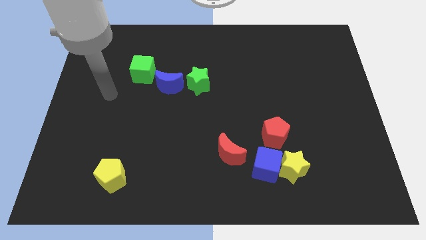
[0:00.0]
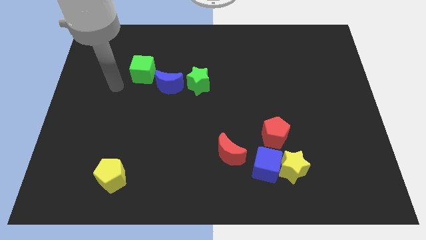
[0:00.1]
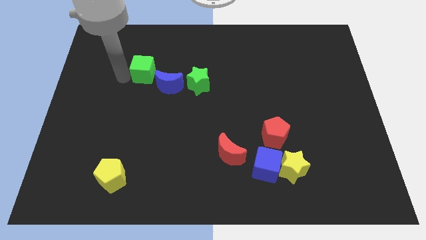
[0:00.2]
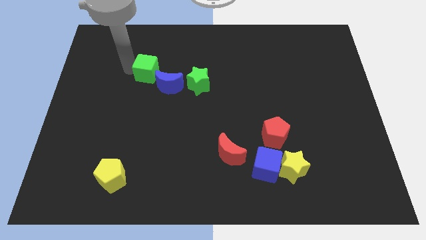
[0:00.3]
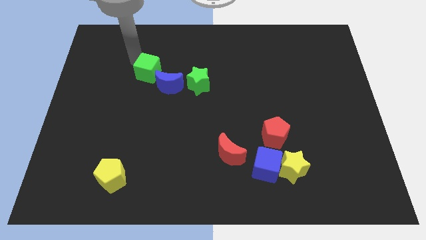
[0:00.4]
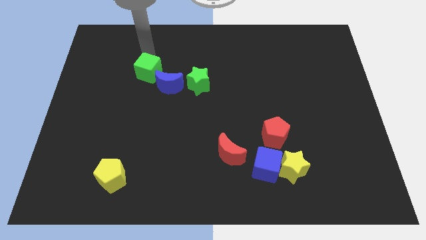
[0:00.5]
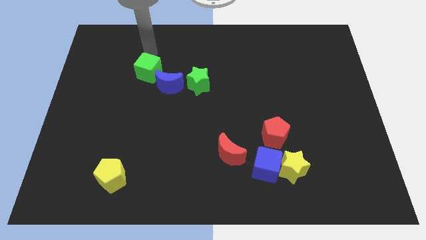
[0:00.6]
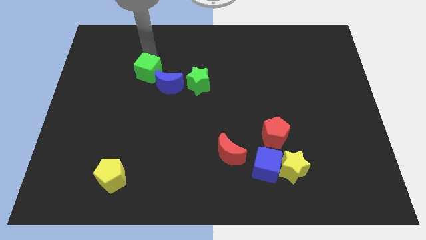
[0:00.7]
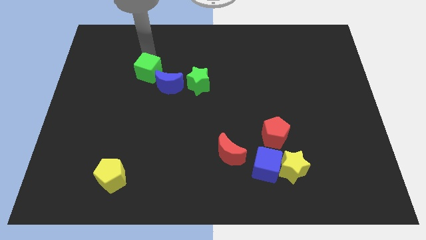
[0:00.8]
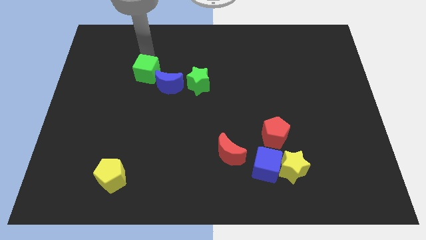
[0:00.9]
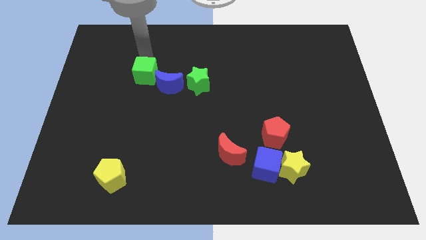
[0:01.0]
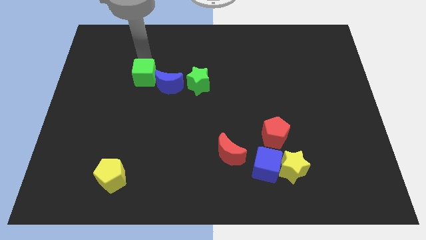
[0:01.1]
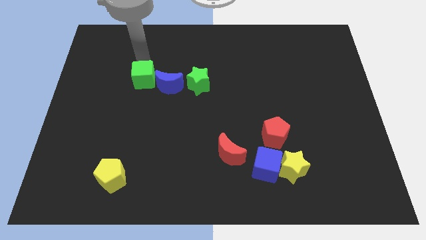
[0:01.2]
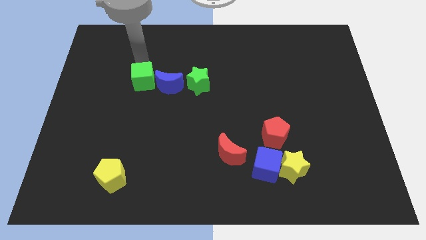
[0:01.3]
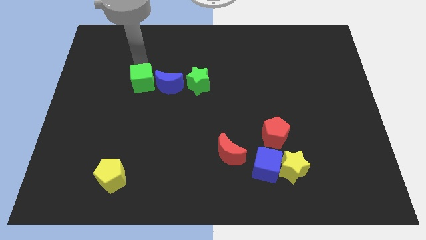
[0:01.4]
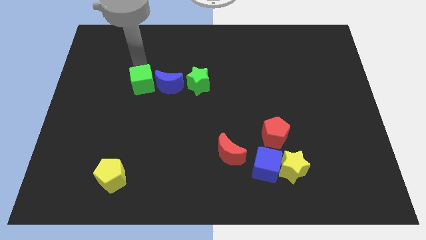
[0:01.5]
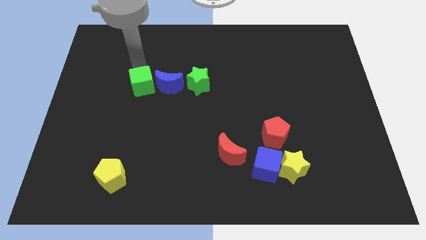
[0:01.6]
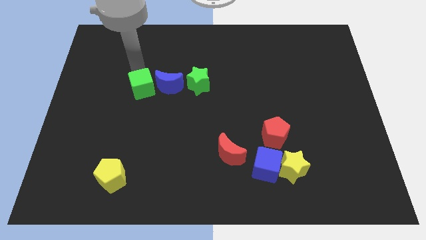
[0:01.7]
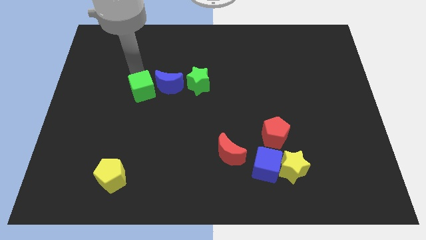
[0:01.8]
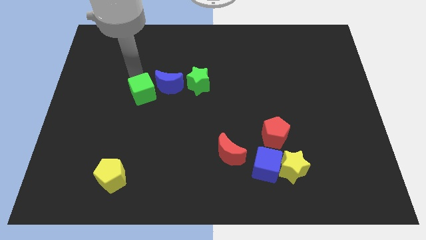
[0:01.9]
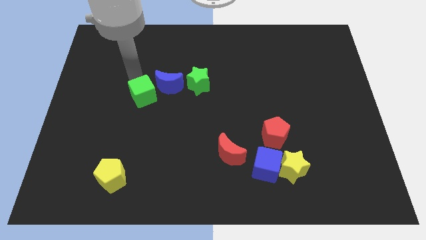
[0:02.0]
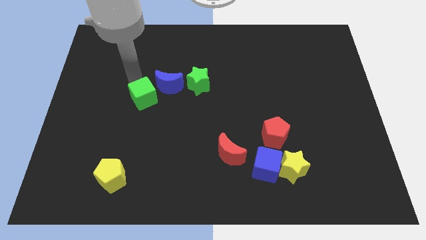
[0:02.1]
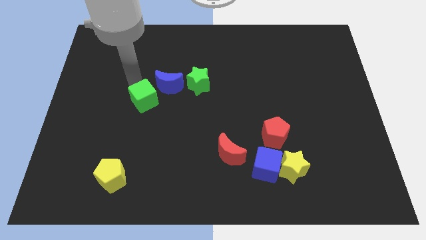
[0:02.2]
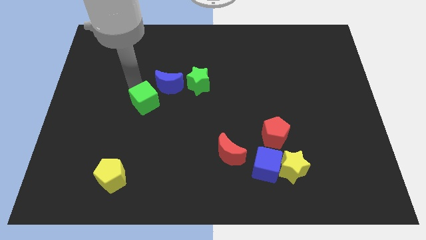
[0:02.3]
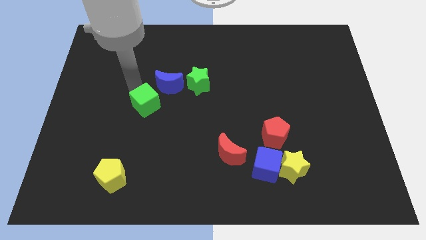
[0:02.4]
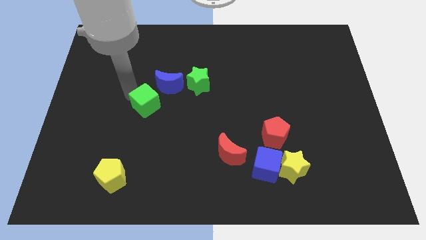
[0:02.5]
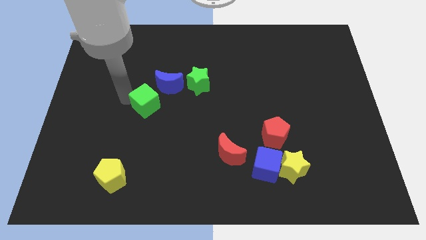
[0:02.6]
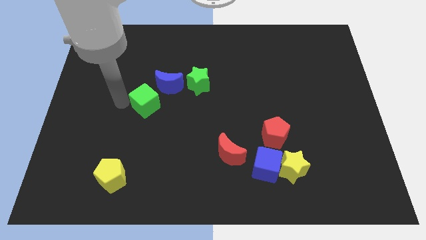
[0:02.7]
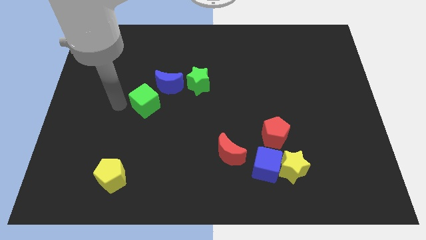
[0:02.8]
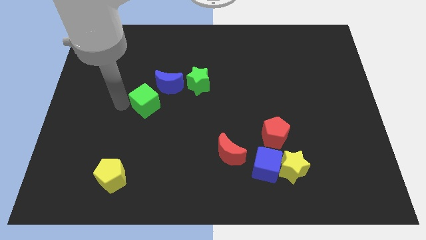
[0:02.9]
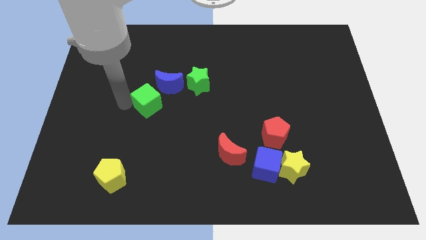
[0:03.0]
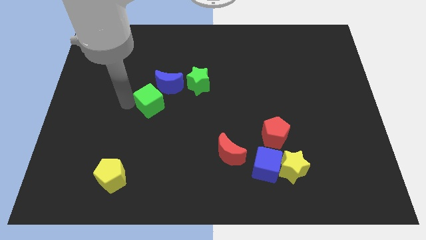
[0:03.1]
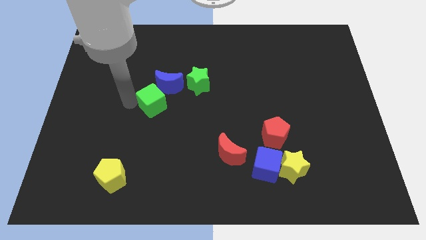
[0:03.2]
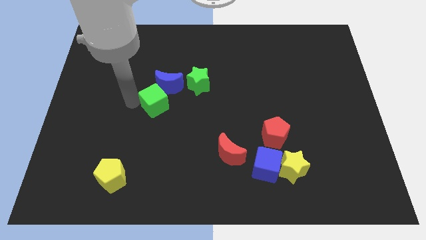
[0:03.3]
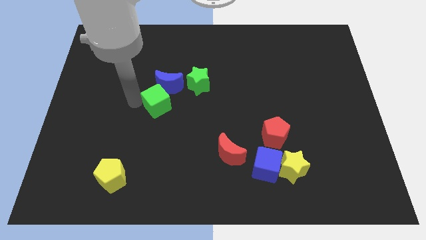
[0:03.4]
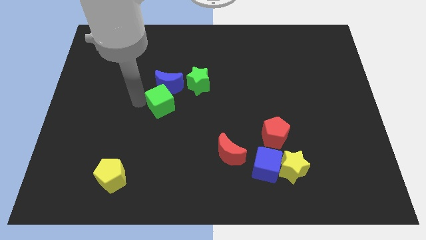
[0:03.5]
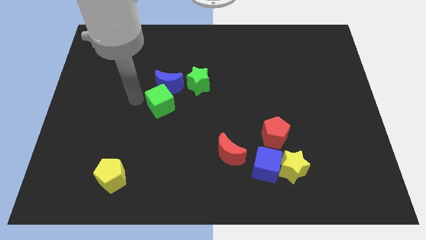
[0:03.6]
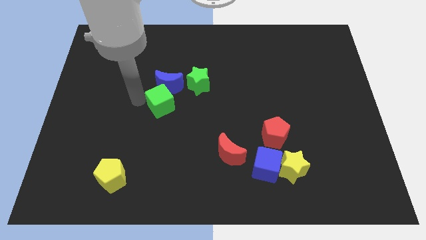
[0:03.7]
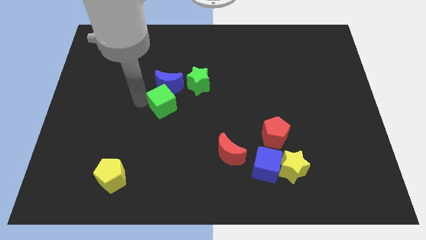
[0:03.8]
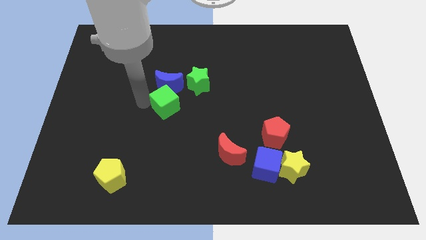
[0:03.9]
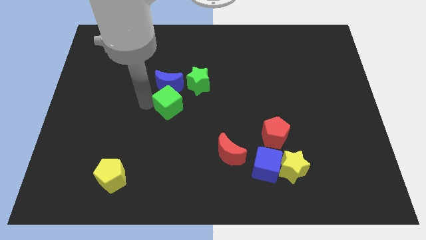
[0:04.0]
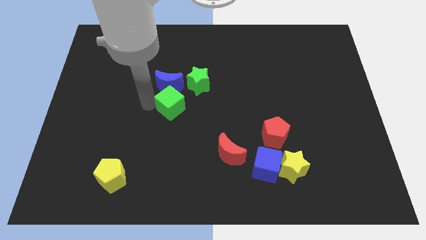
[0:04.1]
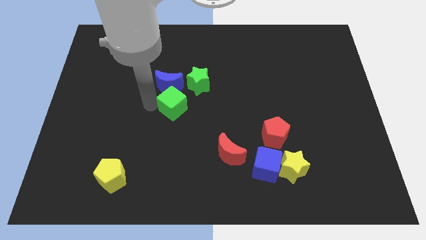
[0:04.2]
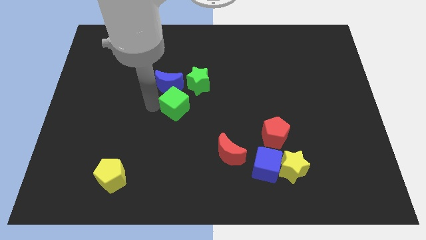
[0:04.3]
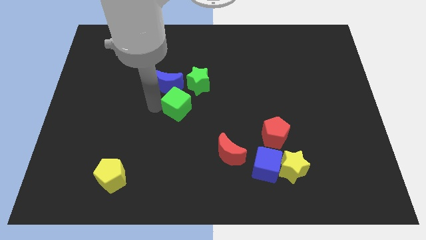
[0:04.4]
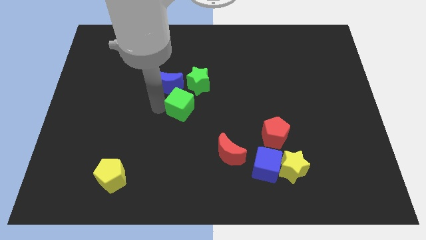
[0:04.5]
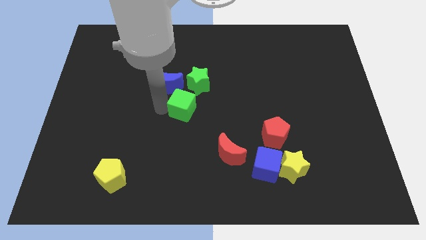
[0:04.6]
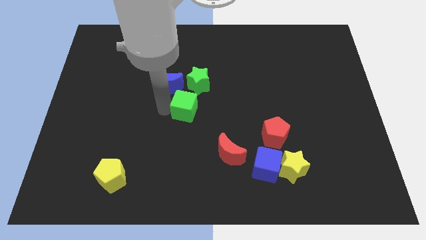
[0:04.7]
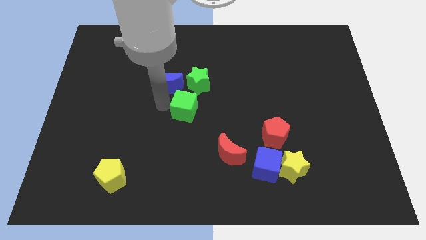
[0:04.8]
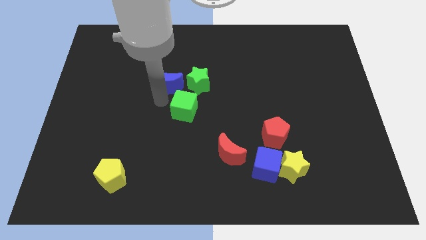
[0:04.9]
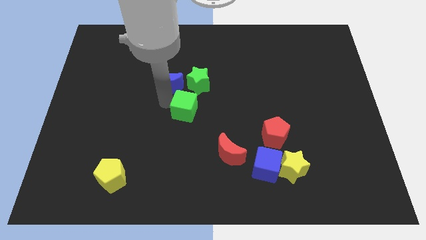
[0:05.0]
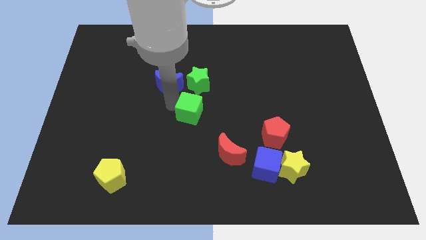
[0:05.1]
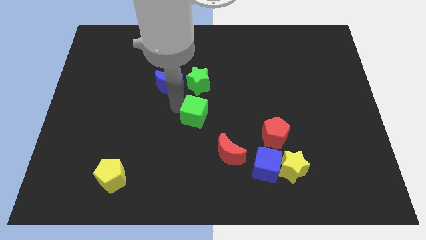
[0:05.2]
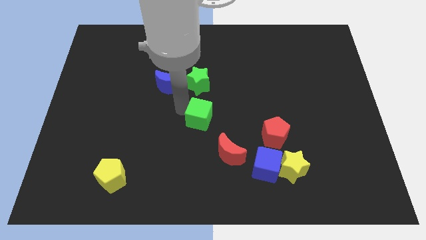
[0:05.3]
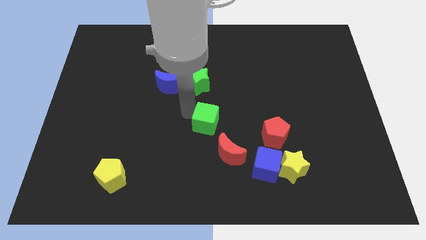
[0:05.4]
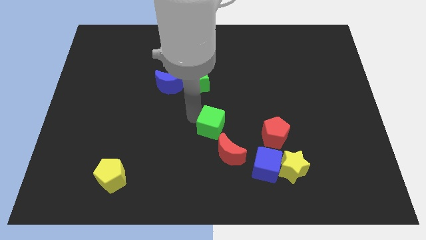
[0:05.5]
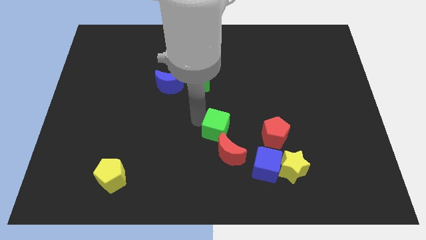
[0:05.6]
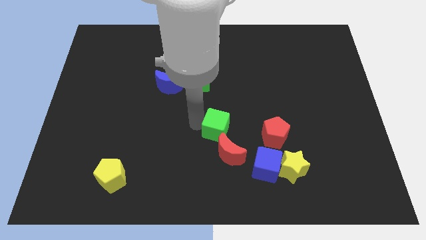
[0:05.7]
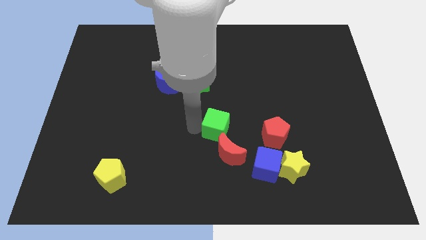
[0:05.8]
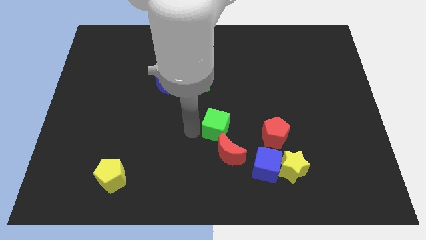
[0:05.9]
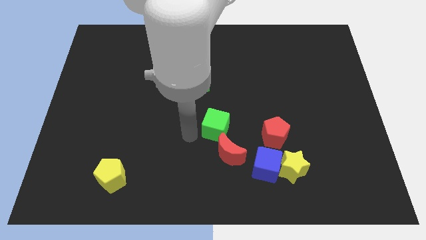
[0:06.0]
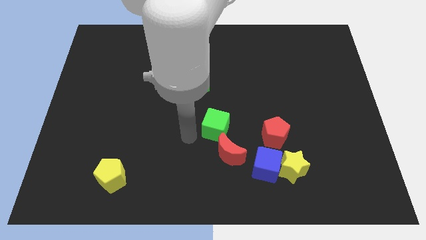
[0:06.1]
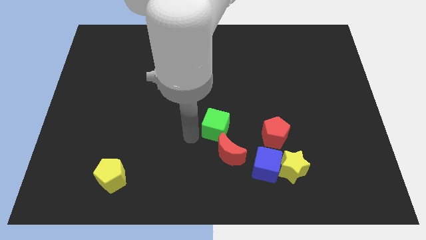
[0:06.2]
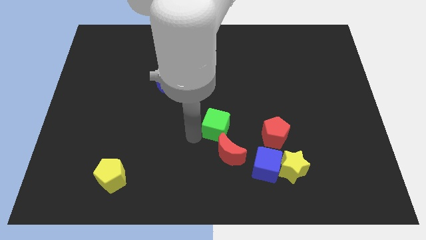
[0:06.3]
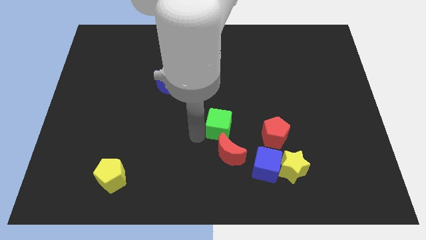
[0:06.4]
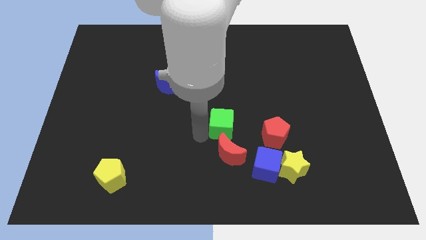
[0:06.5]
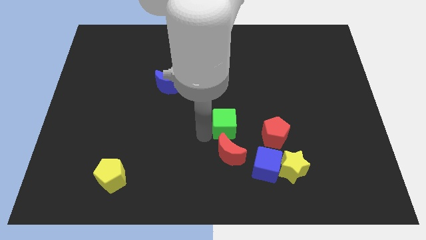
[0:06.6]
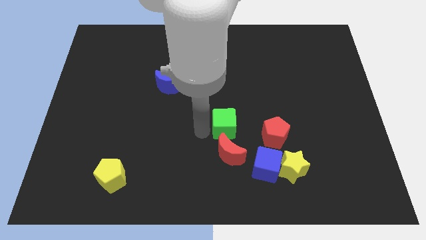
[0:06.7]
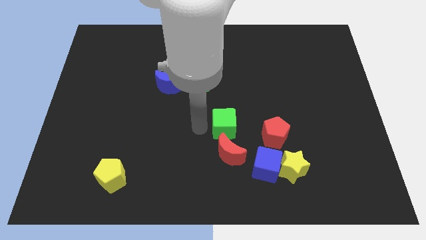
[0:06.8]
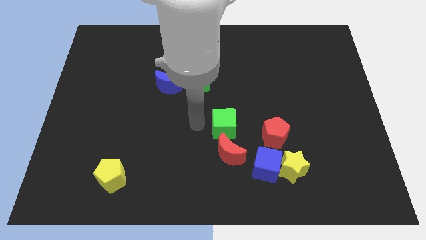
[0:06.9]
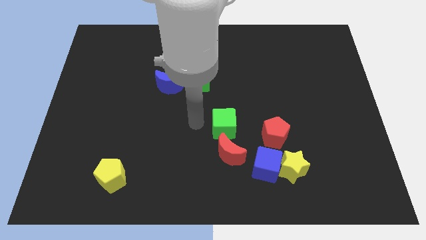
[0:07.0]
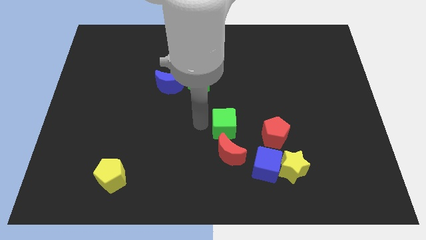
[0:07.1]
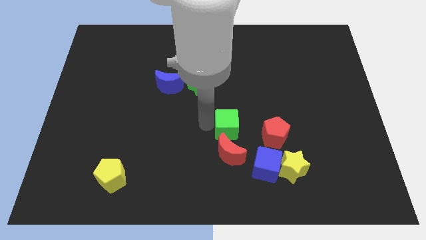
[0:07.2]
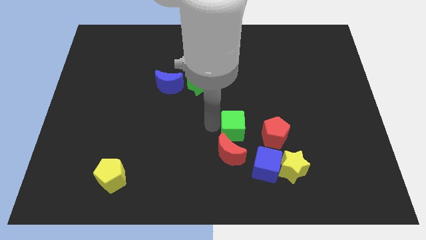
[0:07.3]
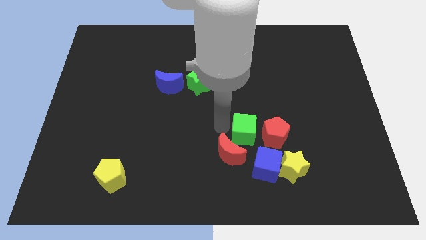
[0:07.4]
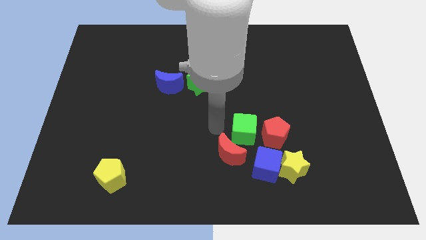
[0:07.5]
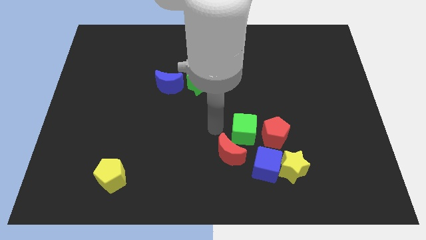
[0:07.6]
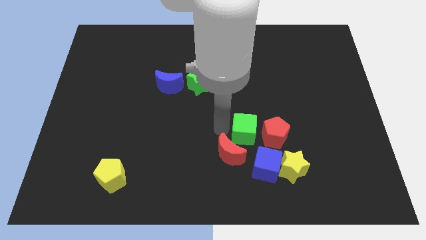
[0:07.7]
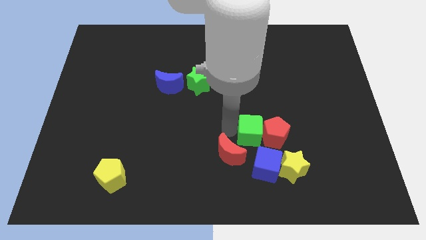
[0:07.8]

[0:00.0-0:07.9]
push the green cube close to the red pentagon
